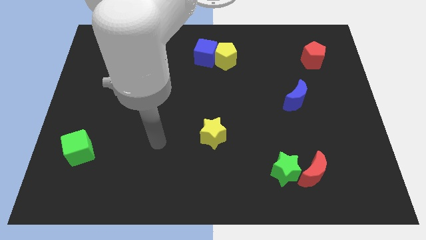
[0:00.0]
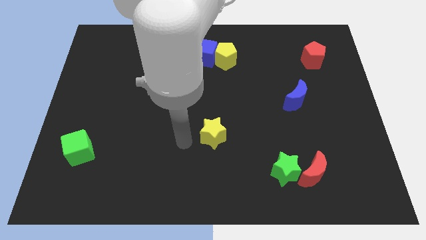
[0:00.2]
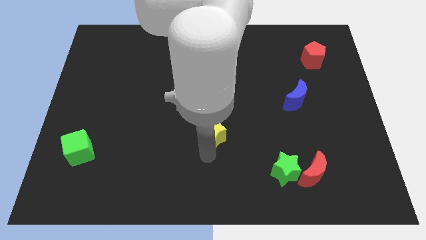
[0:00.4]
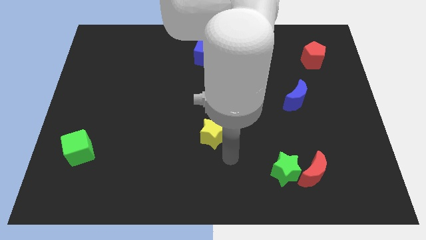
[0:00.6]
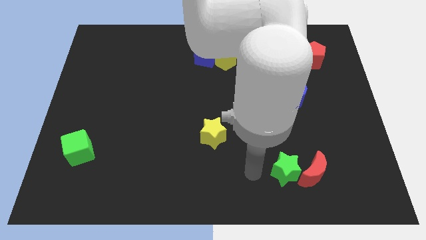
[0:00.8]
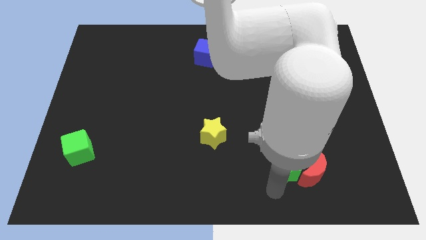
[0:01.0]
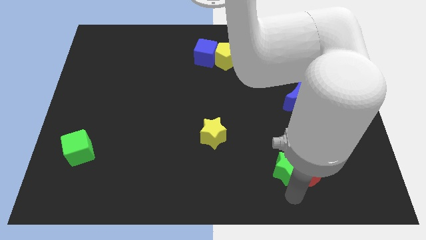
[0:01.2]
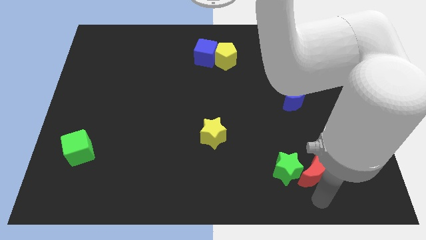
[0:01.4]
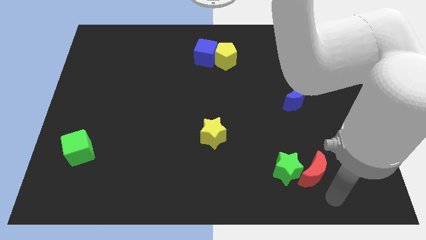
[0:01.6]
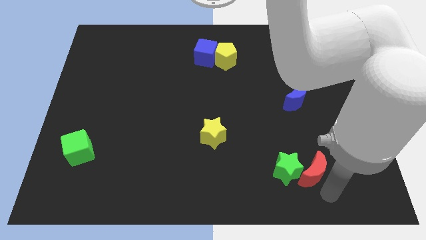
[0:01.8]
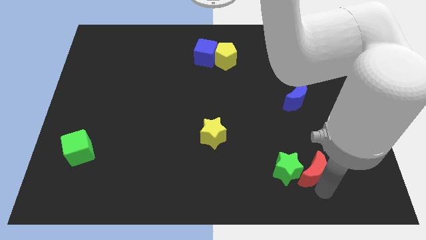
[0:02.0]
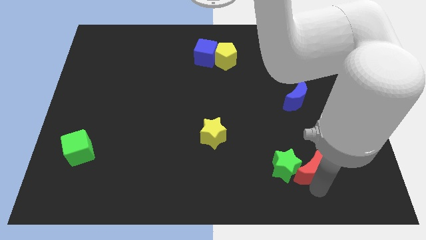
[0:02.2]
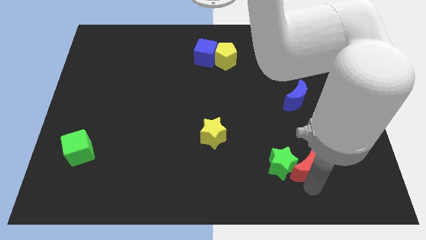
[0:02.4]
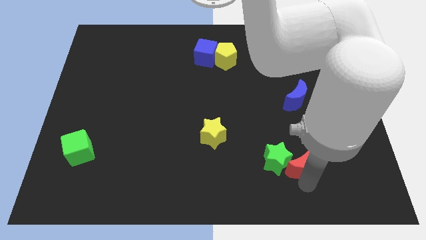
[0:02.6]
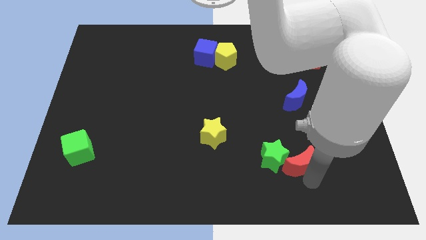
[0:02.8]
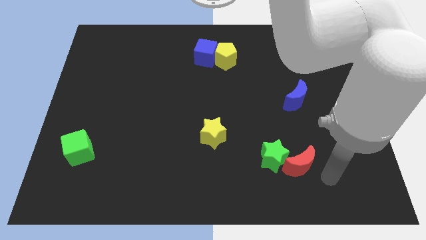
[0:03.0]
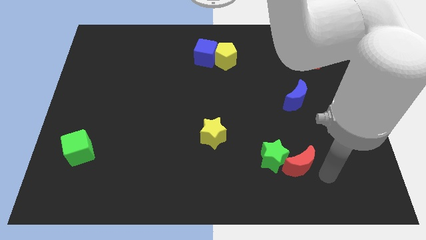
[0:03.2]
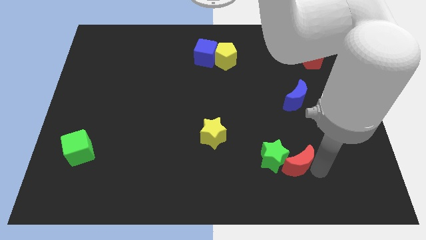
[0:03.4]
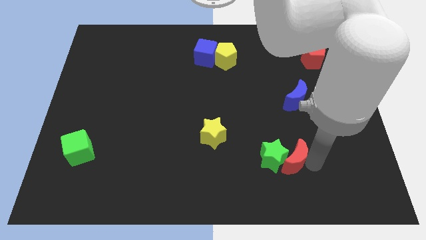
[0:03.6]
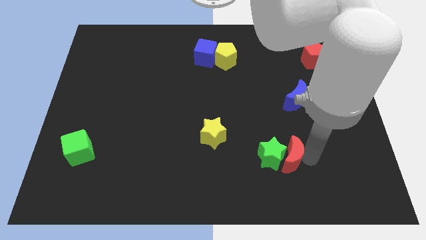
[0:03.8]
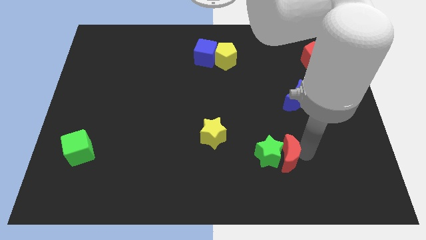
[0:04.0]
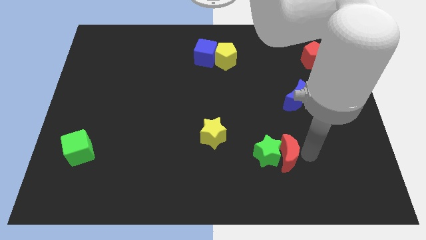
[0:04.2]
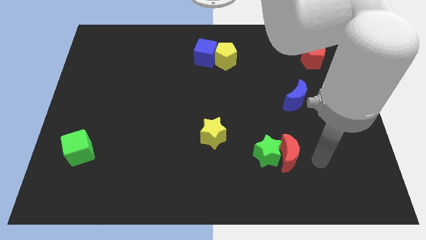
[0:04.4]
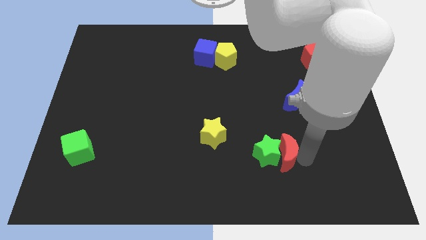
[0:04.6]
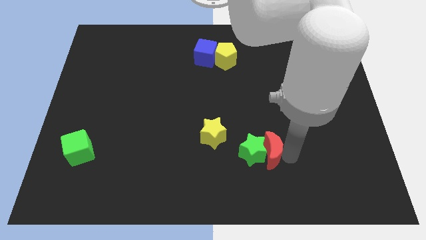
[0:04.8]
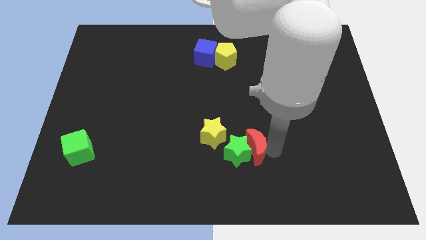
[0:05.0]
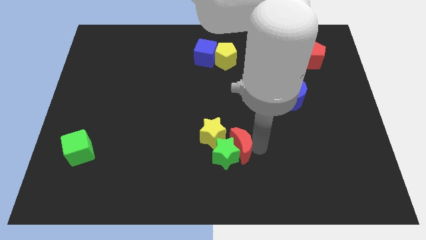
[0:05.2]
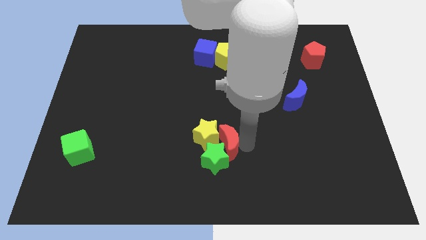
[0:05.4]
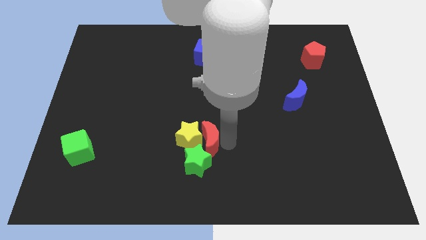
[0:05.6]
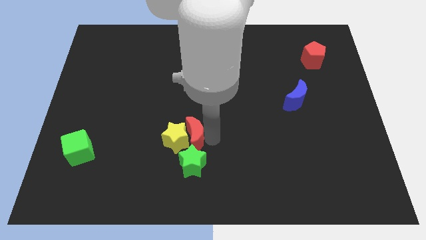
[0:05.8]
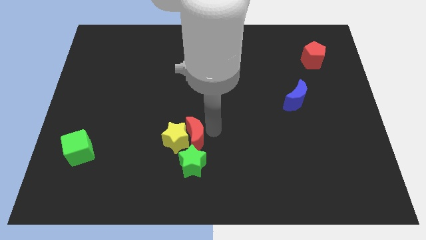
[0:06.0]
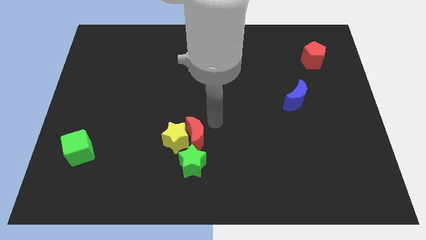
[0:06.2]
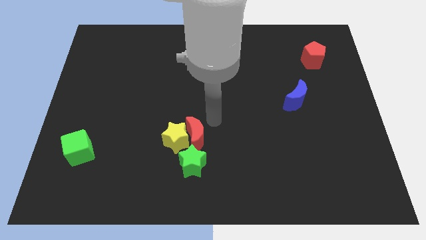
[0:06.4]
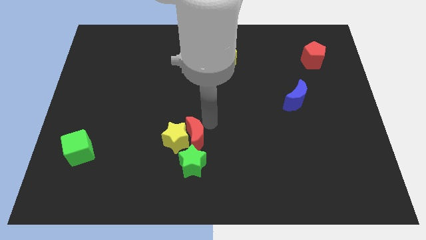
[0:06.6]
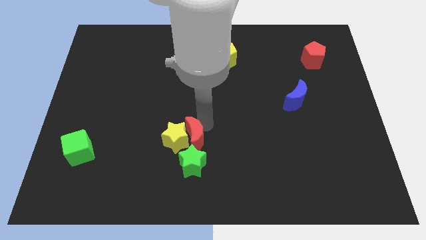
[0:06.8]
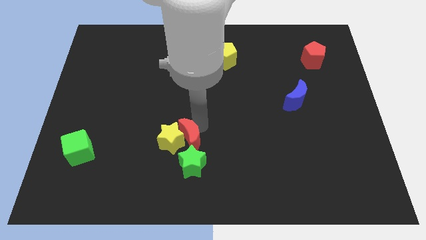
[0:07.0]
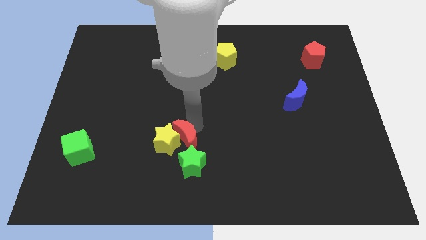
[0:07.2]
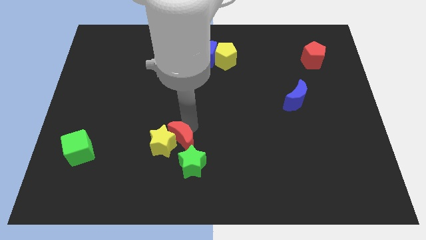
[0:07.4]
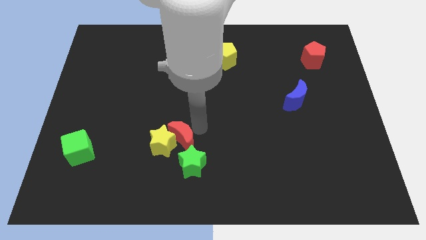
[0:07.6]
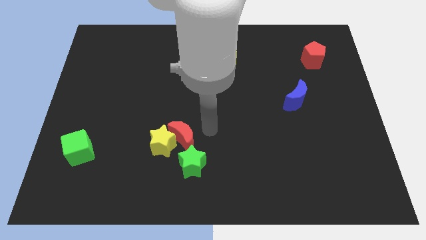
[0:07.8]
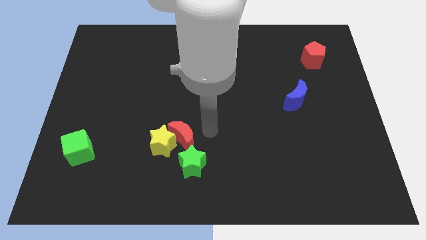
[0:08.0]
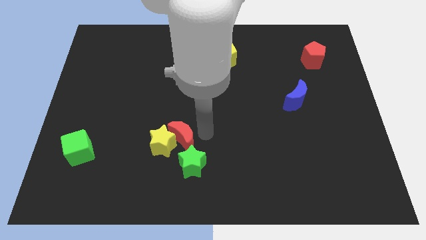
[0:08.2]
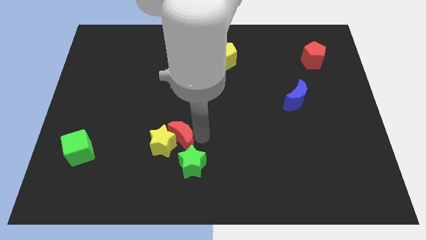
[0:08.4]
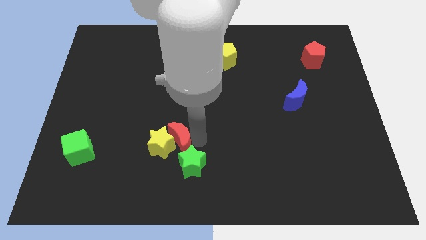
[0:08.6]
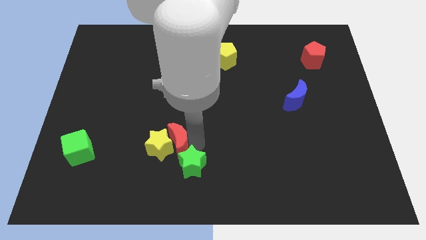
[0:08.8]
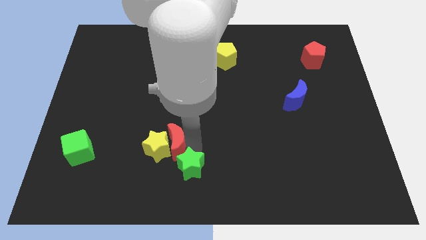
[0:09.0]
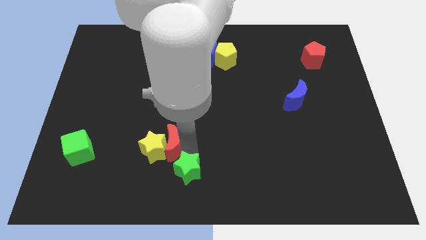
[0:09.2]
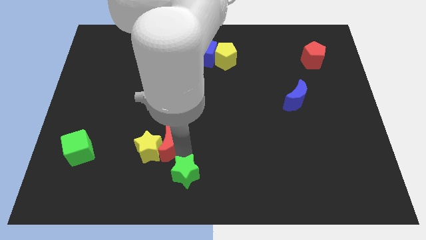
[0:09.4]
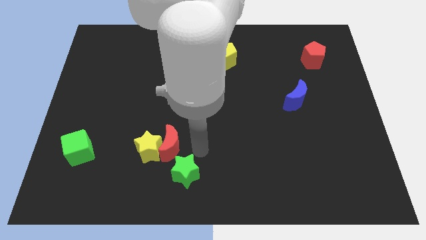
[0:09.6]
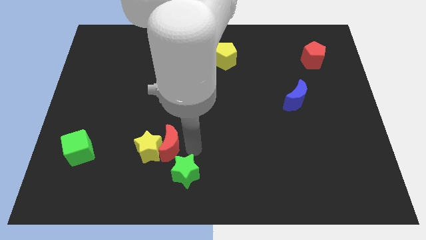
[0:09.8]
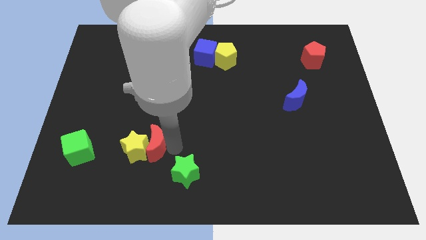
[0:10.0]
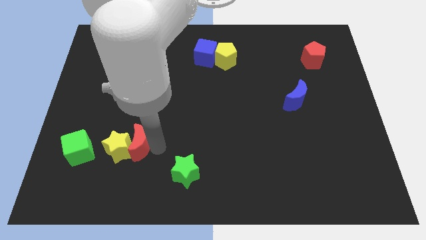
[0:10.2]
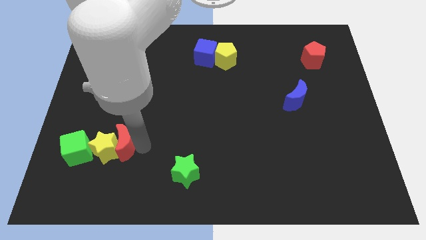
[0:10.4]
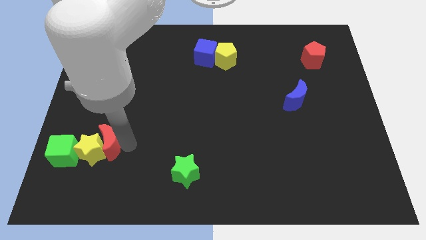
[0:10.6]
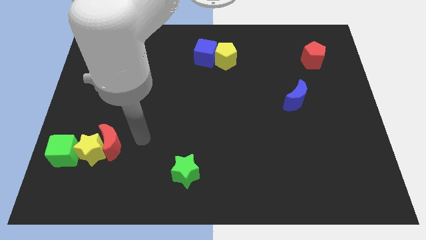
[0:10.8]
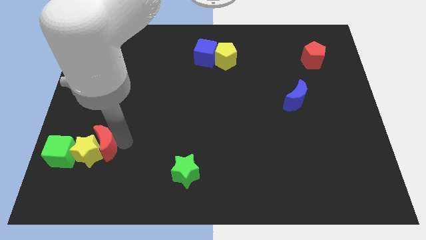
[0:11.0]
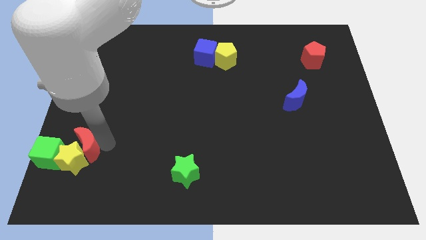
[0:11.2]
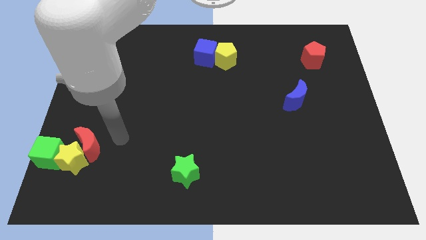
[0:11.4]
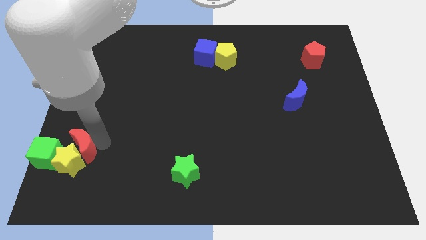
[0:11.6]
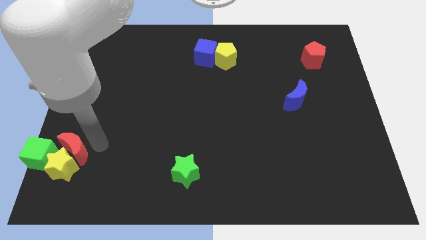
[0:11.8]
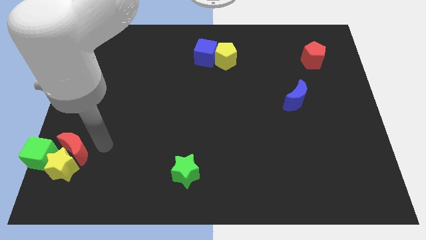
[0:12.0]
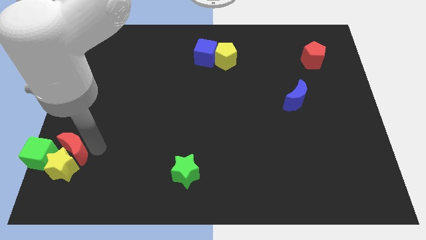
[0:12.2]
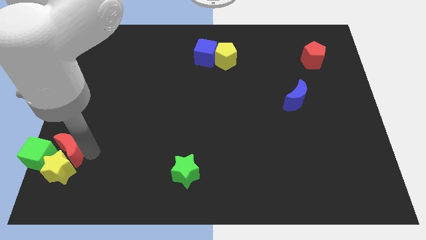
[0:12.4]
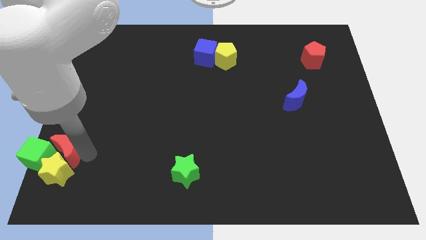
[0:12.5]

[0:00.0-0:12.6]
slide the red moon towards the green cube
